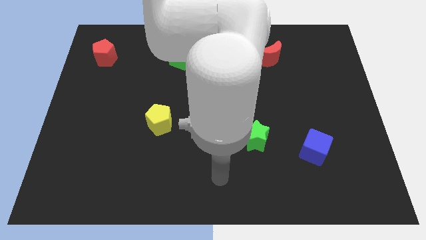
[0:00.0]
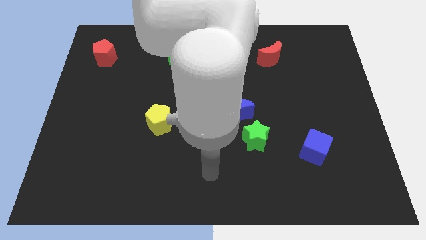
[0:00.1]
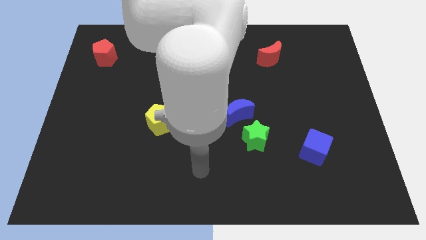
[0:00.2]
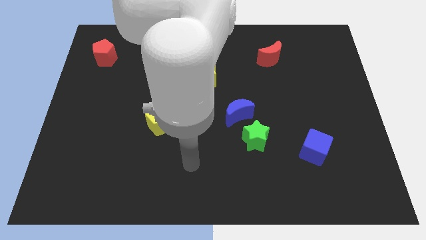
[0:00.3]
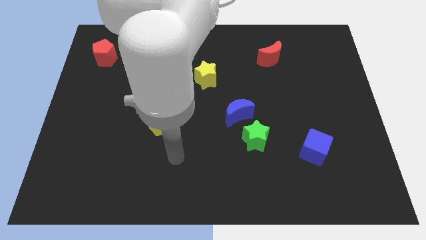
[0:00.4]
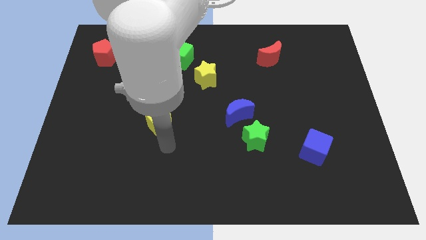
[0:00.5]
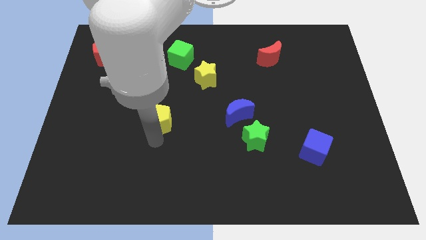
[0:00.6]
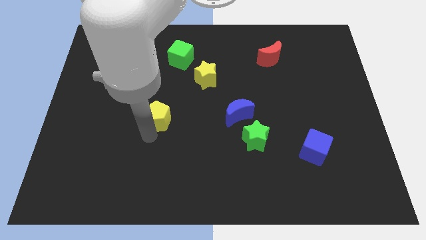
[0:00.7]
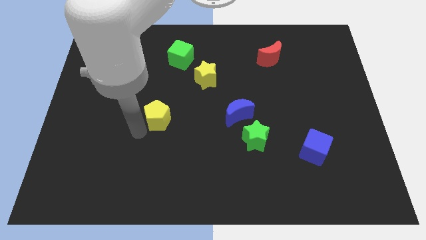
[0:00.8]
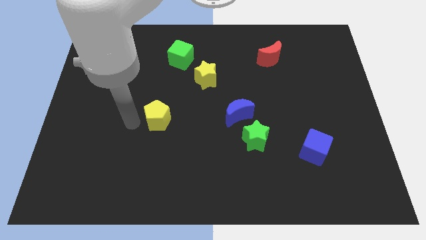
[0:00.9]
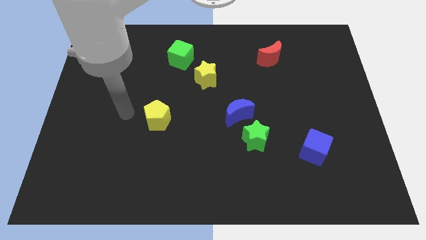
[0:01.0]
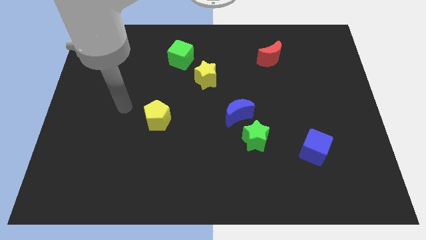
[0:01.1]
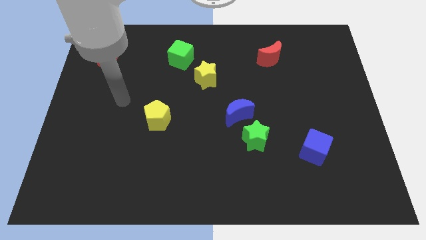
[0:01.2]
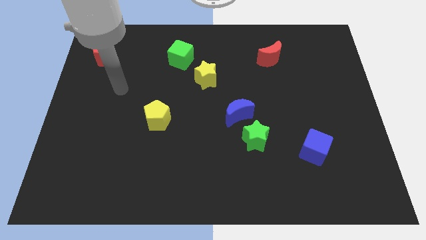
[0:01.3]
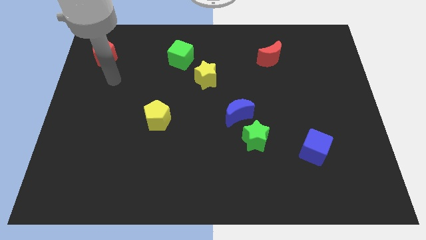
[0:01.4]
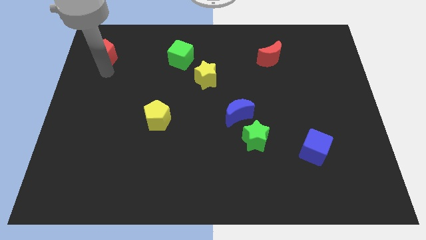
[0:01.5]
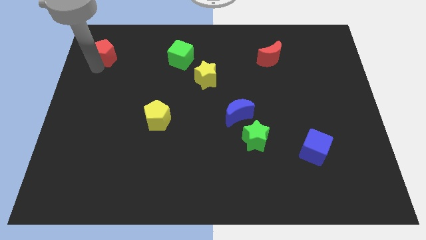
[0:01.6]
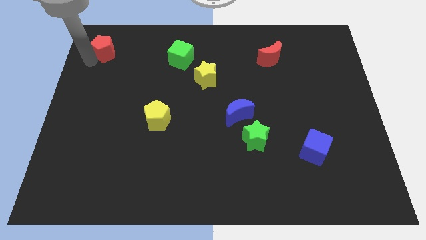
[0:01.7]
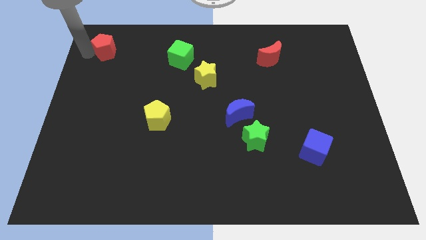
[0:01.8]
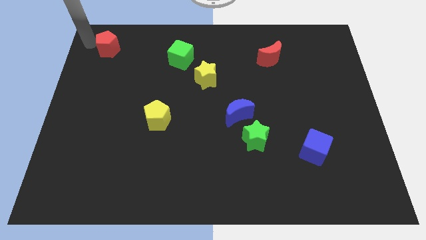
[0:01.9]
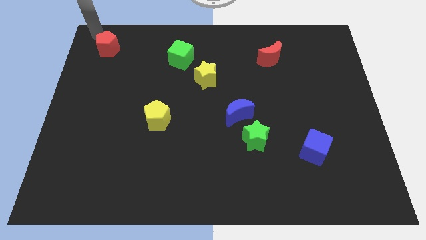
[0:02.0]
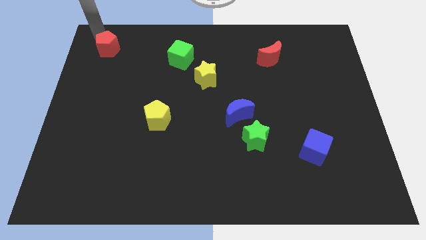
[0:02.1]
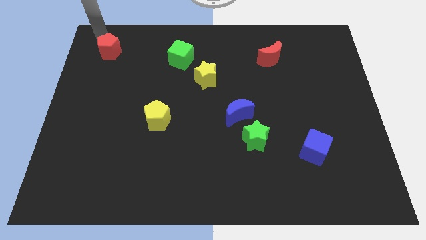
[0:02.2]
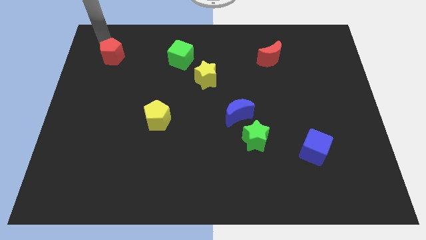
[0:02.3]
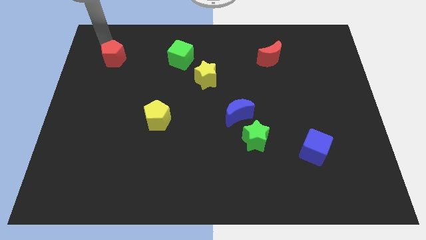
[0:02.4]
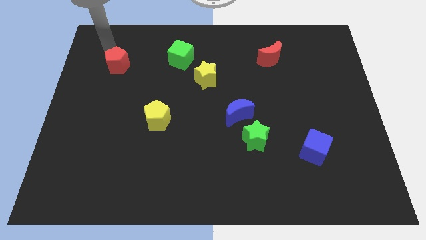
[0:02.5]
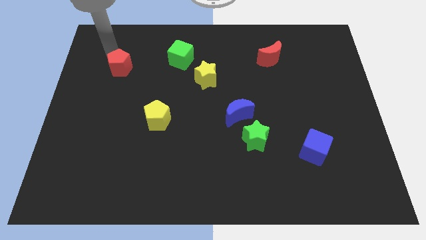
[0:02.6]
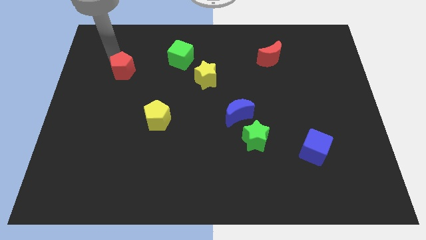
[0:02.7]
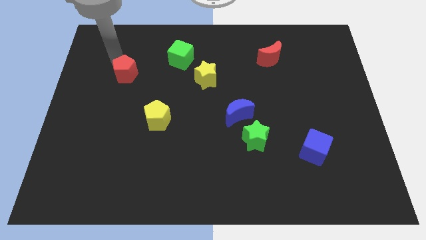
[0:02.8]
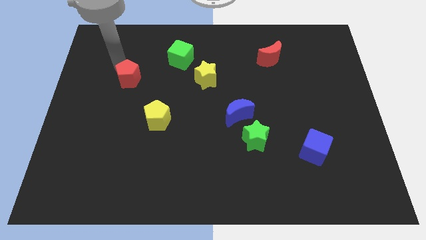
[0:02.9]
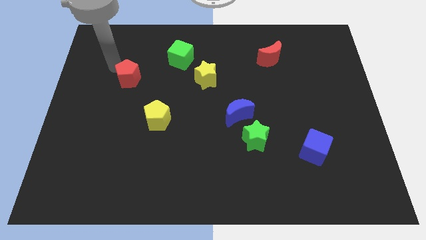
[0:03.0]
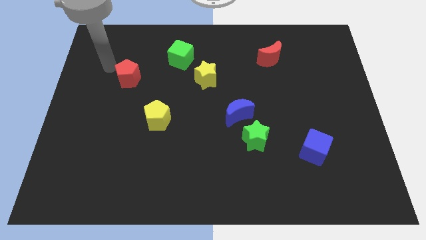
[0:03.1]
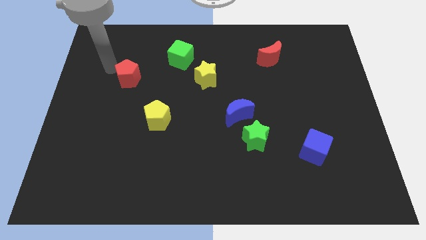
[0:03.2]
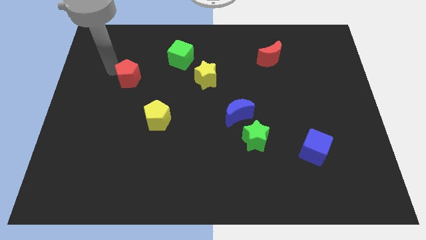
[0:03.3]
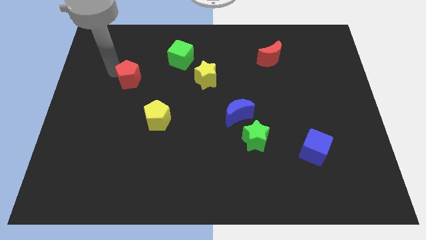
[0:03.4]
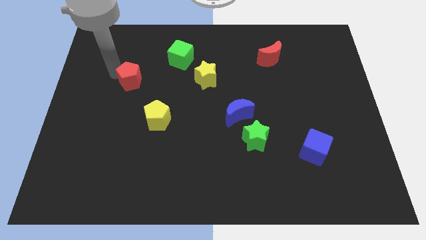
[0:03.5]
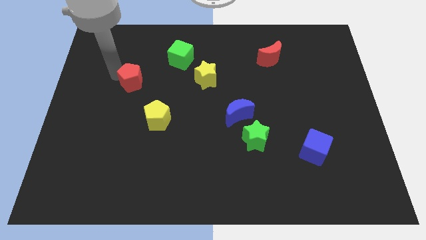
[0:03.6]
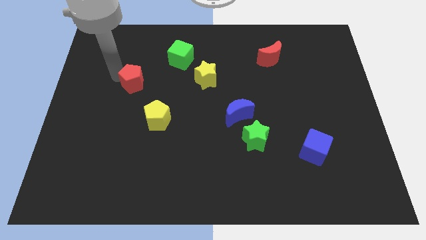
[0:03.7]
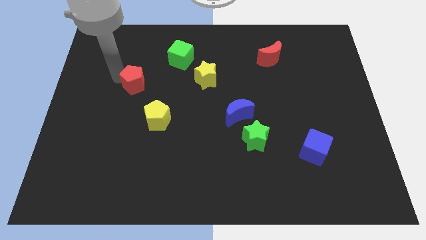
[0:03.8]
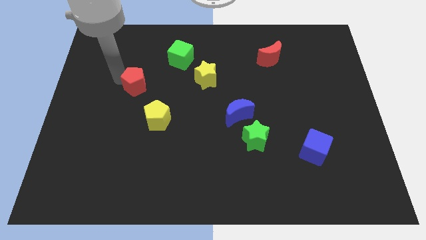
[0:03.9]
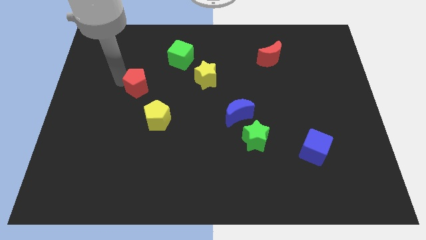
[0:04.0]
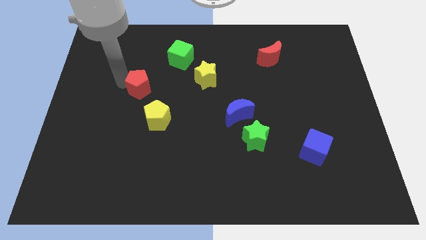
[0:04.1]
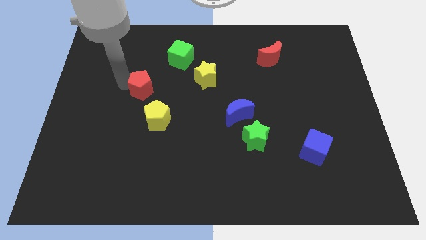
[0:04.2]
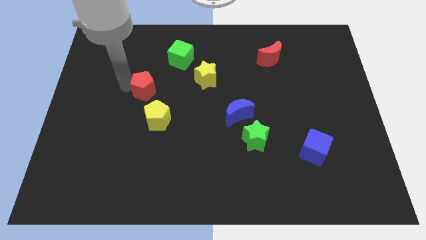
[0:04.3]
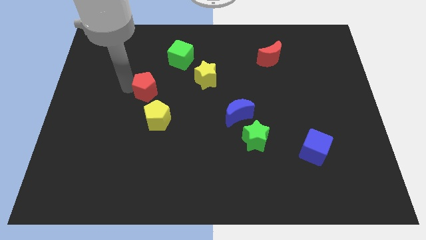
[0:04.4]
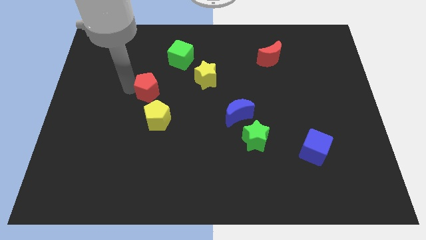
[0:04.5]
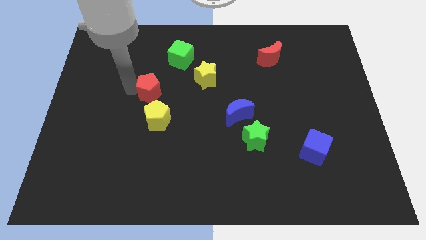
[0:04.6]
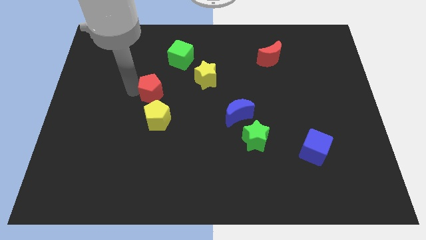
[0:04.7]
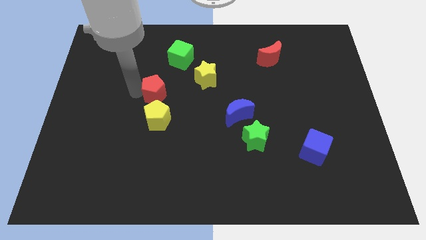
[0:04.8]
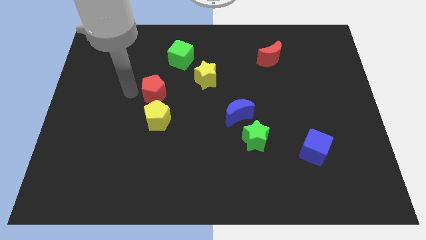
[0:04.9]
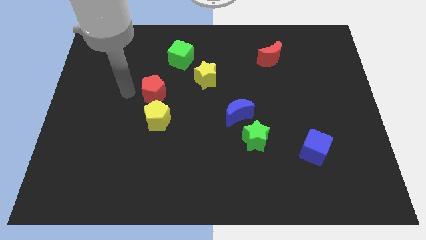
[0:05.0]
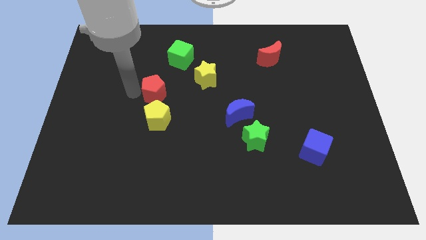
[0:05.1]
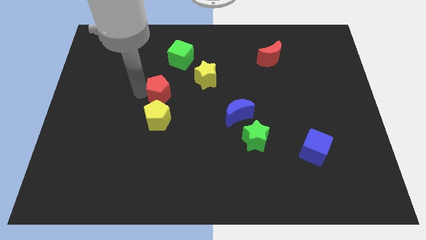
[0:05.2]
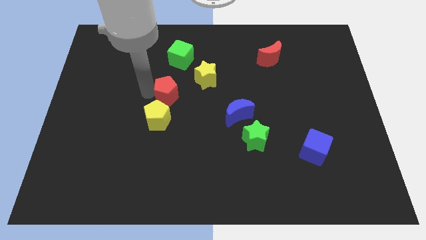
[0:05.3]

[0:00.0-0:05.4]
put the red pentagon diagonally down and to the left of the yellow star

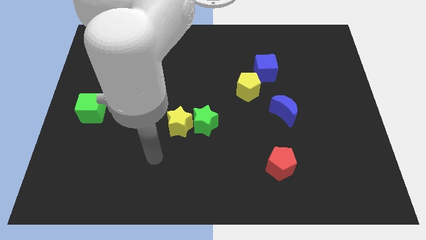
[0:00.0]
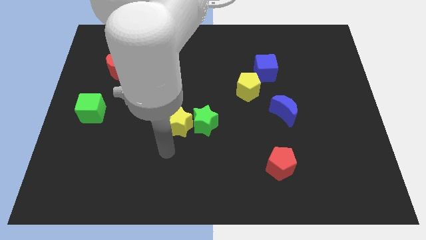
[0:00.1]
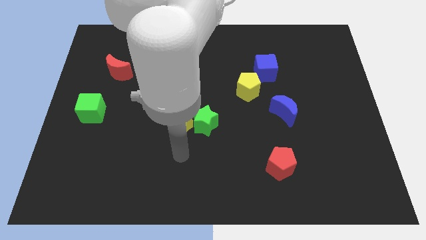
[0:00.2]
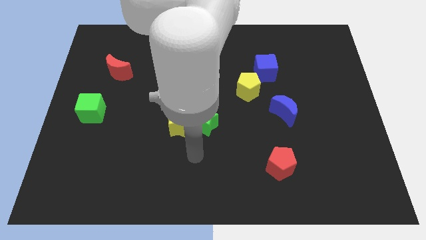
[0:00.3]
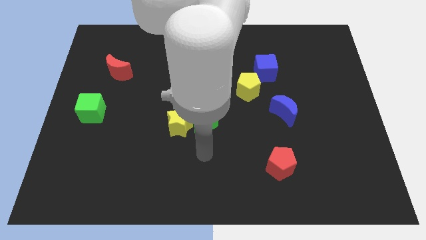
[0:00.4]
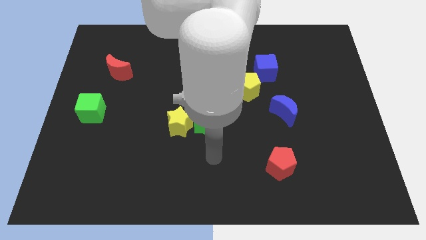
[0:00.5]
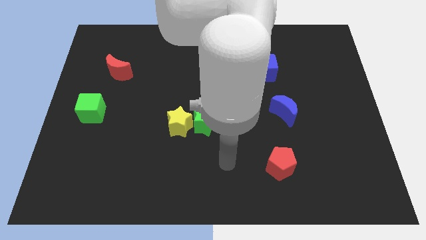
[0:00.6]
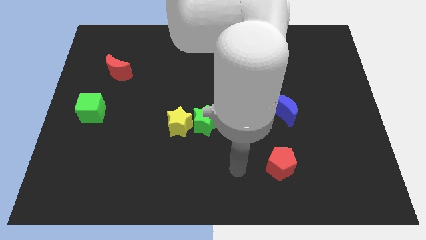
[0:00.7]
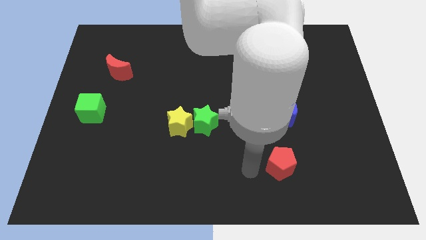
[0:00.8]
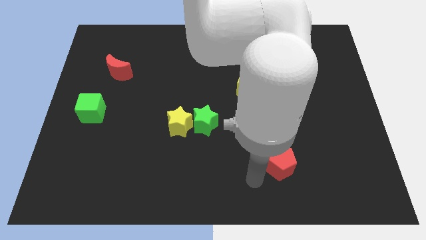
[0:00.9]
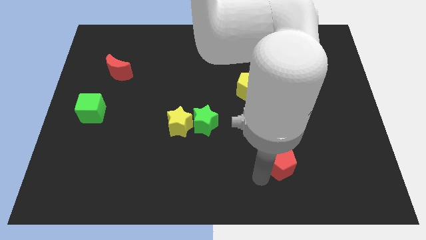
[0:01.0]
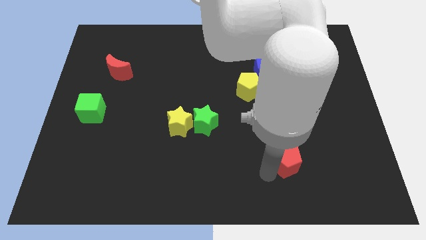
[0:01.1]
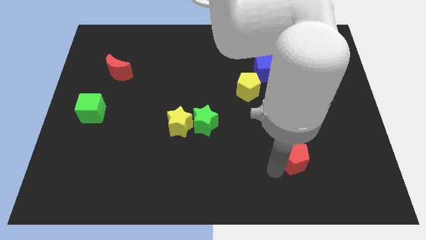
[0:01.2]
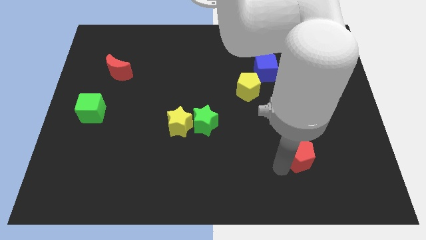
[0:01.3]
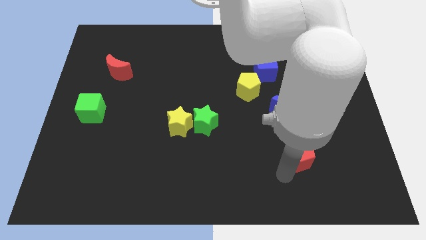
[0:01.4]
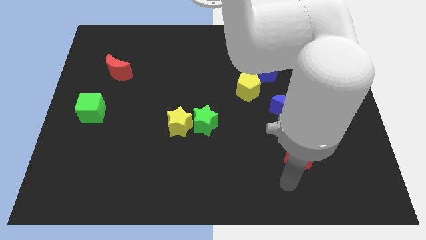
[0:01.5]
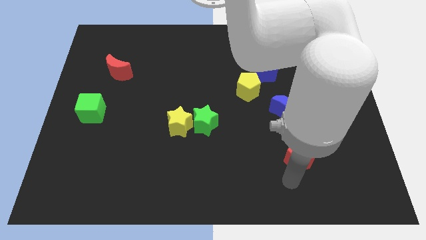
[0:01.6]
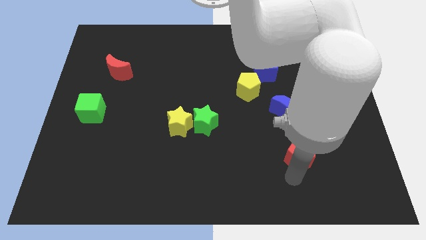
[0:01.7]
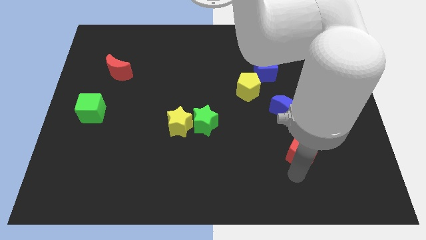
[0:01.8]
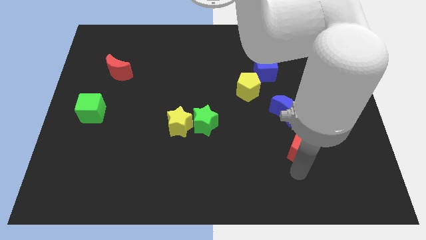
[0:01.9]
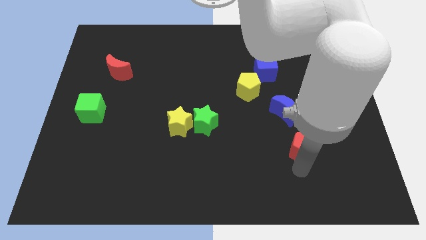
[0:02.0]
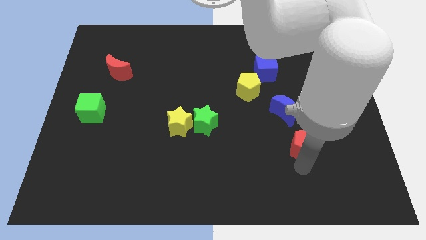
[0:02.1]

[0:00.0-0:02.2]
move the red pentagon to the bottom right side of the blue moon
